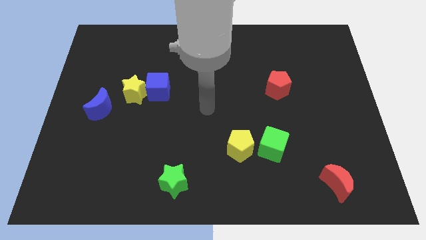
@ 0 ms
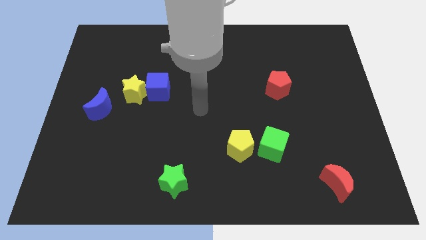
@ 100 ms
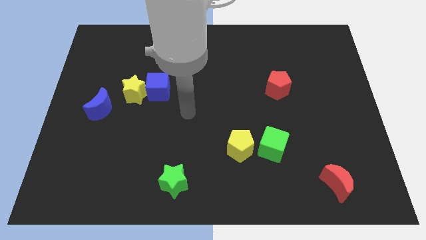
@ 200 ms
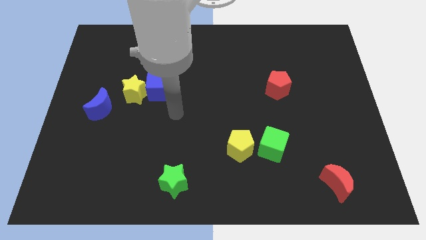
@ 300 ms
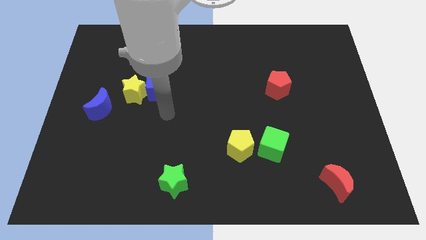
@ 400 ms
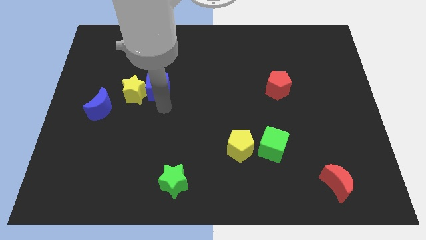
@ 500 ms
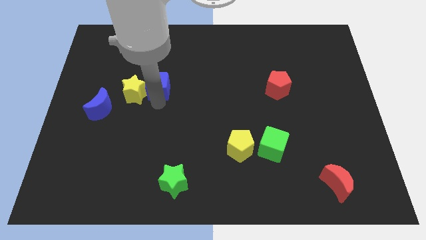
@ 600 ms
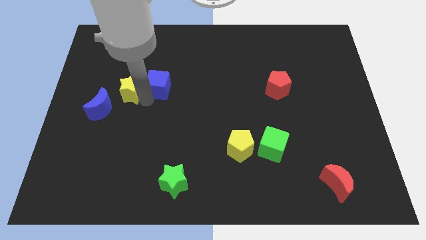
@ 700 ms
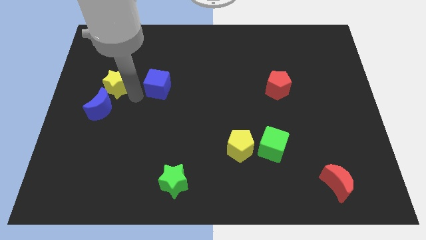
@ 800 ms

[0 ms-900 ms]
separate the blue cube from the yellow star

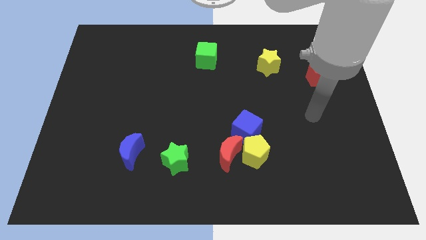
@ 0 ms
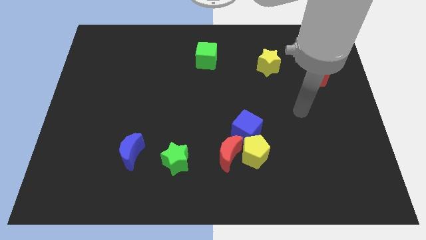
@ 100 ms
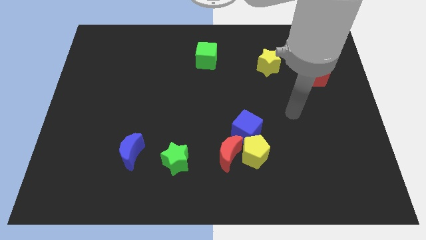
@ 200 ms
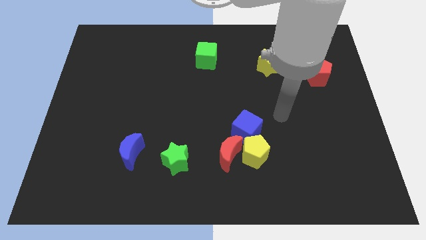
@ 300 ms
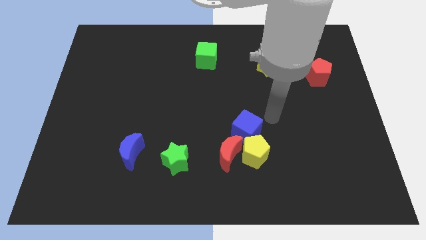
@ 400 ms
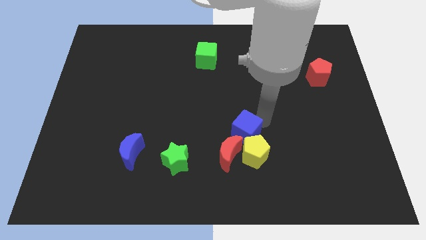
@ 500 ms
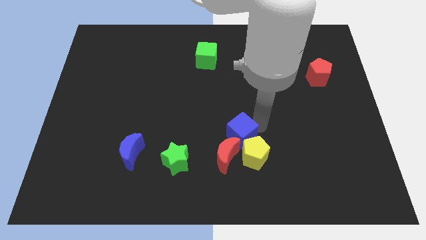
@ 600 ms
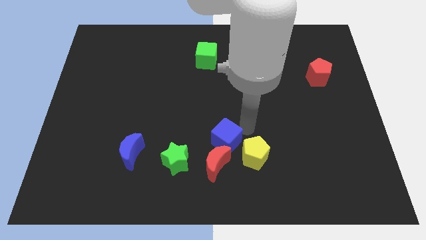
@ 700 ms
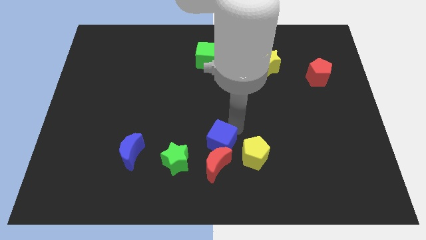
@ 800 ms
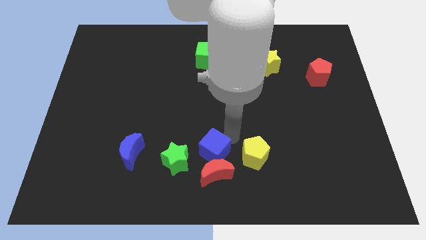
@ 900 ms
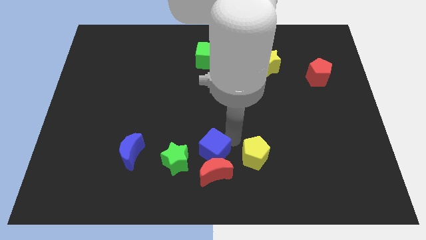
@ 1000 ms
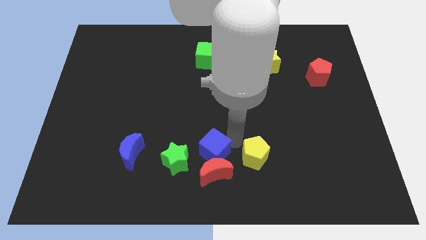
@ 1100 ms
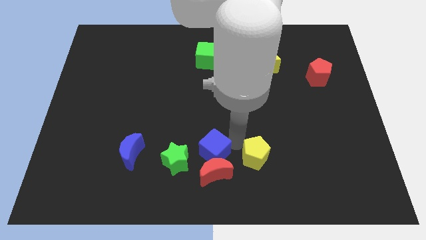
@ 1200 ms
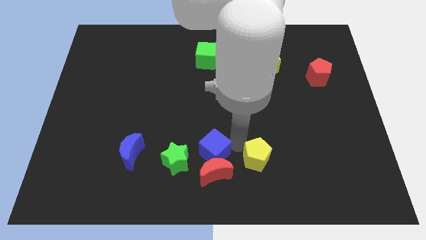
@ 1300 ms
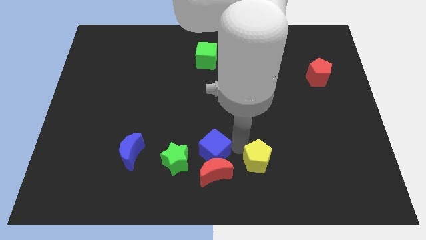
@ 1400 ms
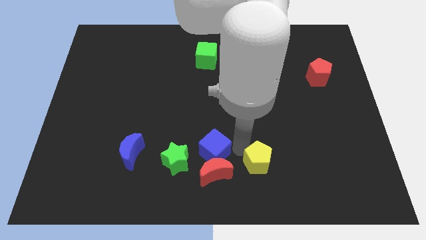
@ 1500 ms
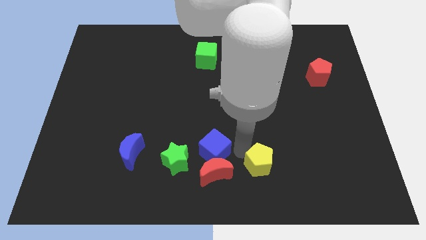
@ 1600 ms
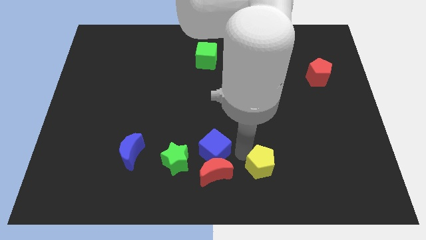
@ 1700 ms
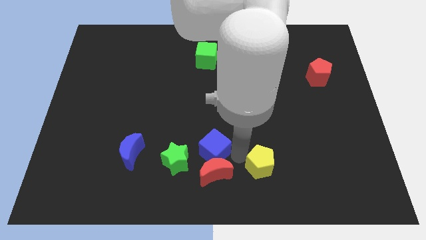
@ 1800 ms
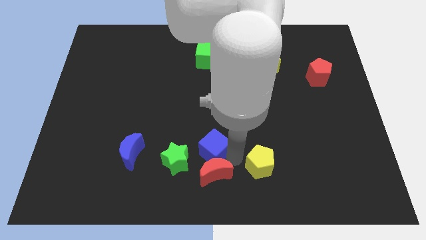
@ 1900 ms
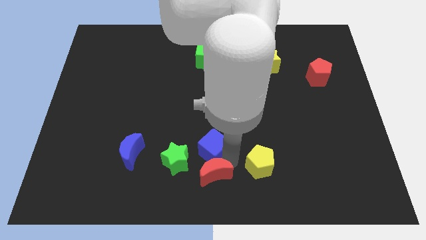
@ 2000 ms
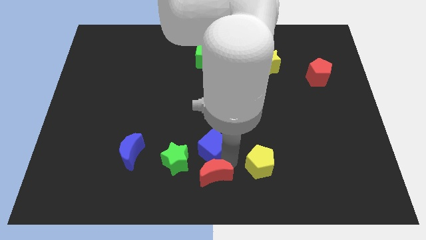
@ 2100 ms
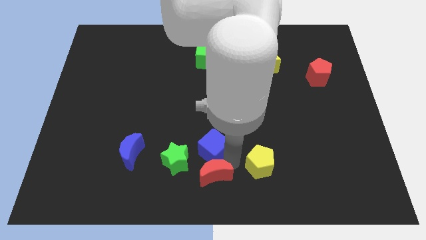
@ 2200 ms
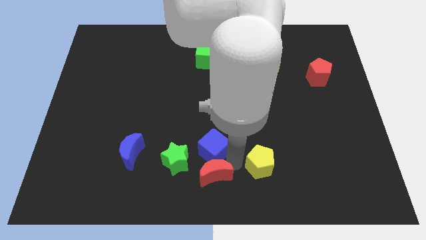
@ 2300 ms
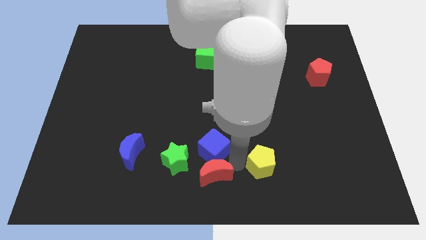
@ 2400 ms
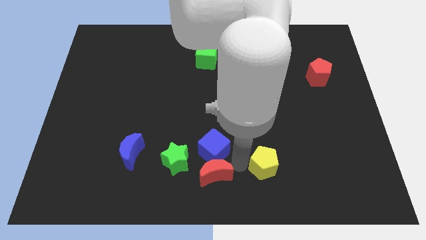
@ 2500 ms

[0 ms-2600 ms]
separate the yellow pentagon from the red moon and blue cube

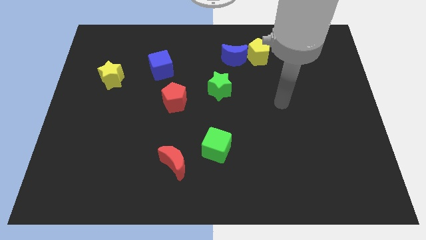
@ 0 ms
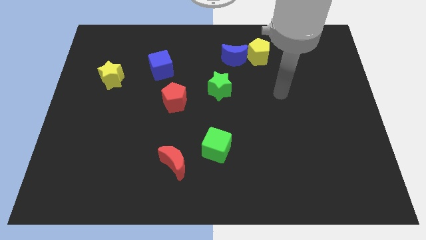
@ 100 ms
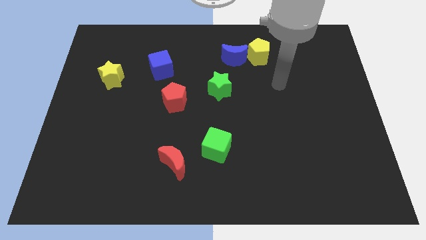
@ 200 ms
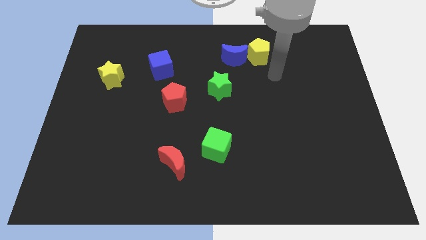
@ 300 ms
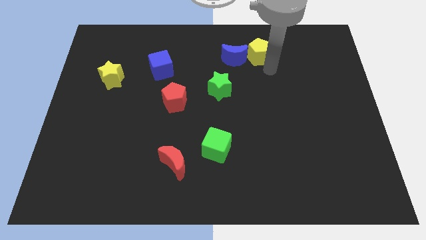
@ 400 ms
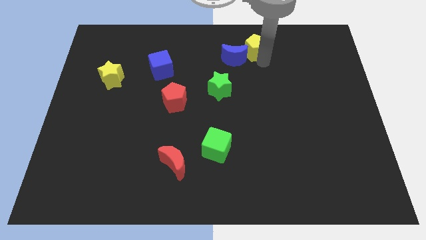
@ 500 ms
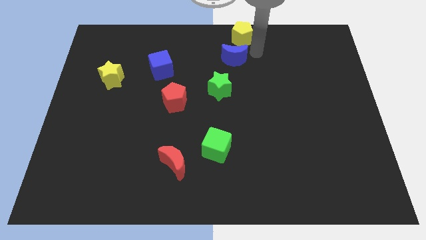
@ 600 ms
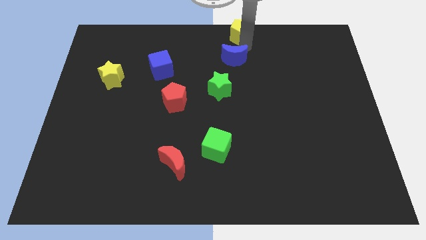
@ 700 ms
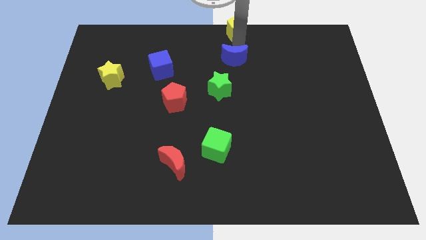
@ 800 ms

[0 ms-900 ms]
move the blue moon away from the yellow pentagon

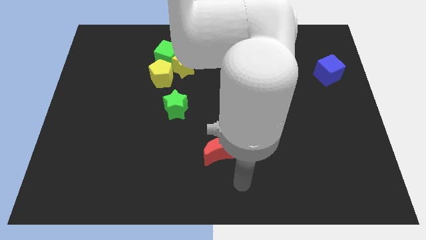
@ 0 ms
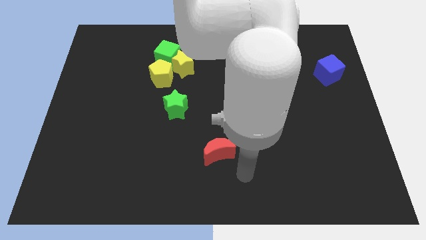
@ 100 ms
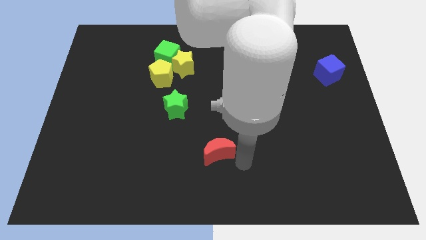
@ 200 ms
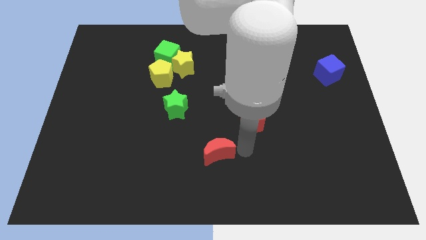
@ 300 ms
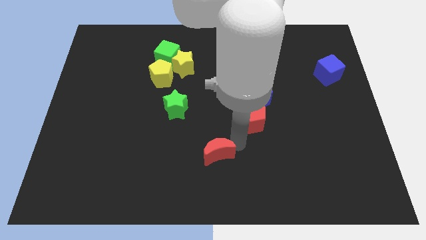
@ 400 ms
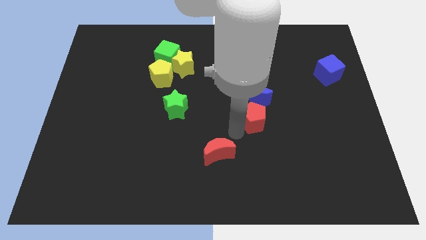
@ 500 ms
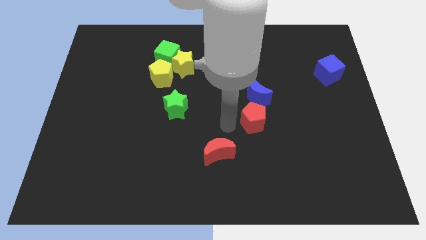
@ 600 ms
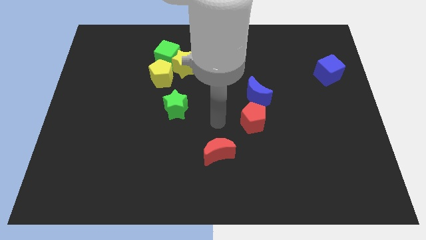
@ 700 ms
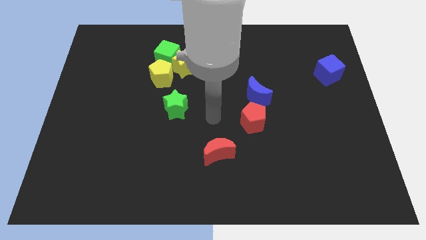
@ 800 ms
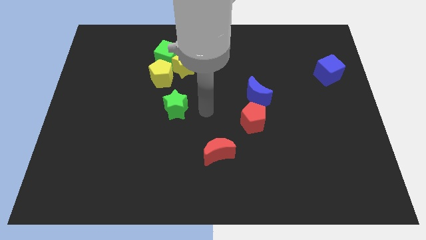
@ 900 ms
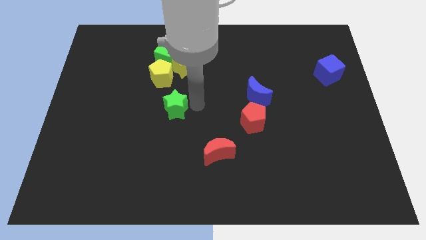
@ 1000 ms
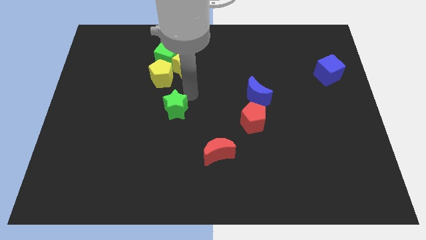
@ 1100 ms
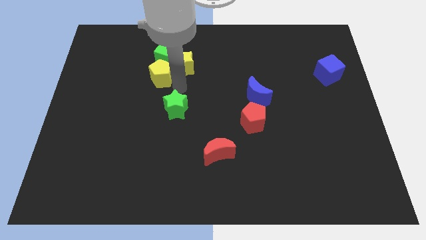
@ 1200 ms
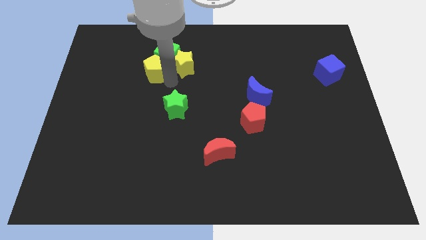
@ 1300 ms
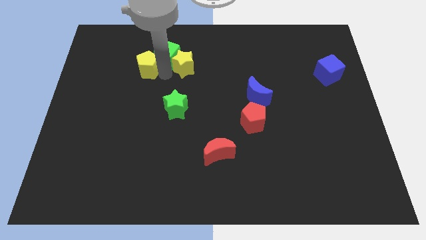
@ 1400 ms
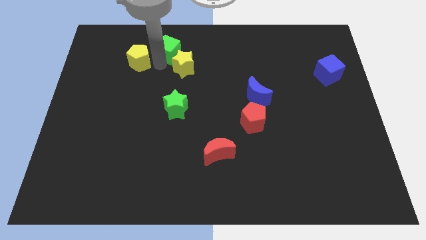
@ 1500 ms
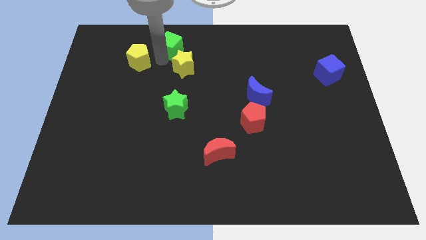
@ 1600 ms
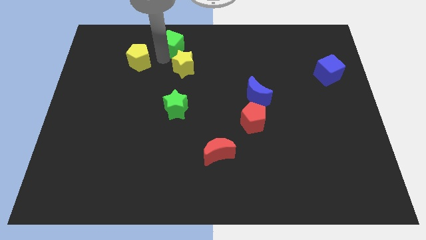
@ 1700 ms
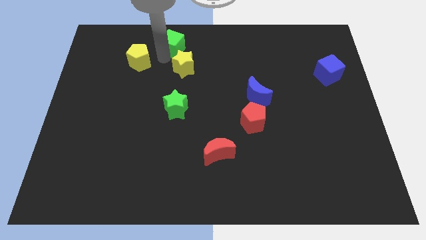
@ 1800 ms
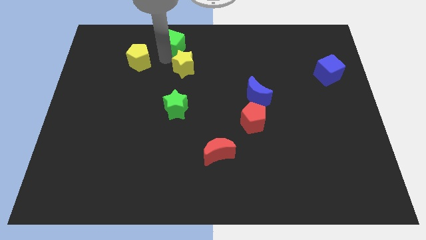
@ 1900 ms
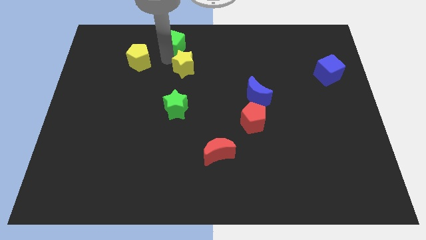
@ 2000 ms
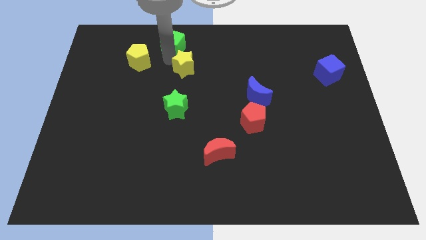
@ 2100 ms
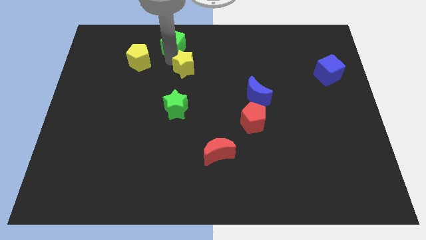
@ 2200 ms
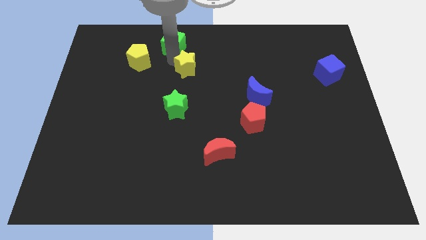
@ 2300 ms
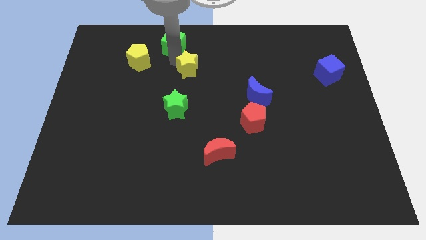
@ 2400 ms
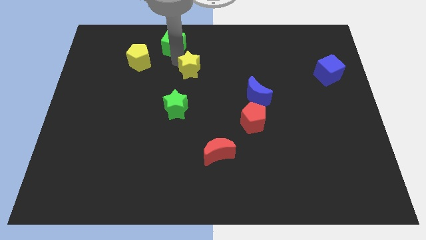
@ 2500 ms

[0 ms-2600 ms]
pull the yellow star apart from the green cube and yellow pentagon

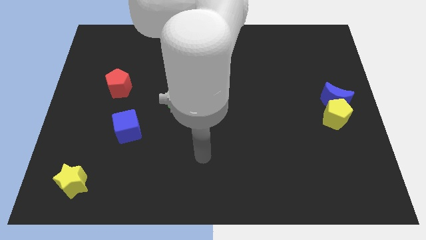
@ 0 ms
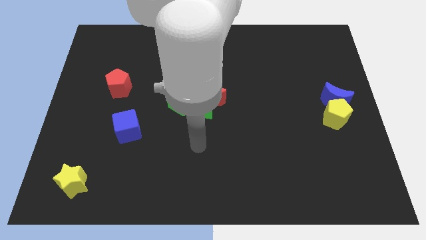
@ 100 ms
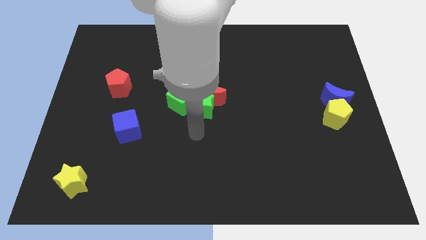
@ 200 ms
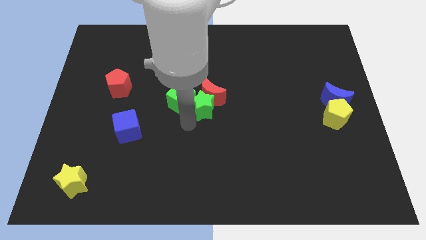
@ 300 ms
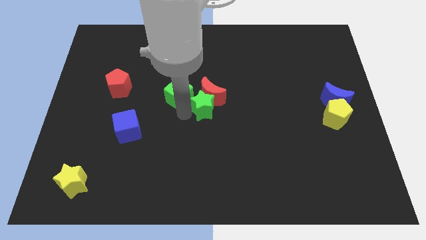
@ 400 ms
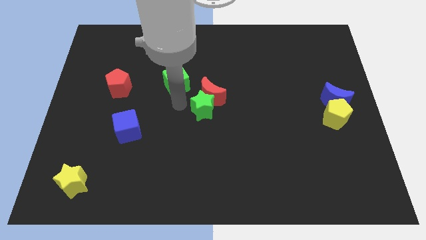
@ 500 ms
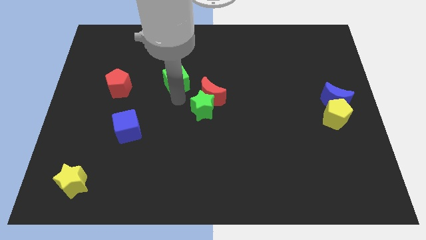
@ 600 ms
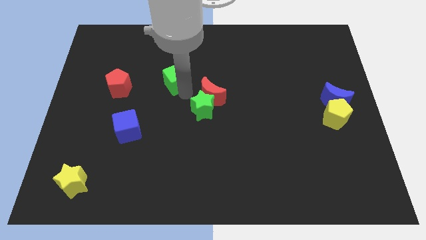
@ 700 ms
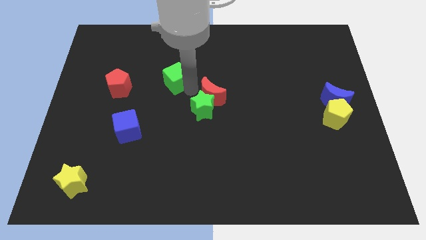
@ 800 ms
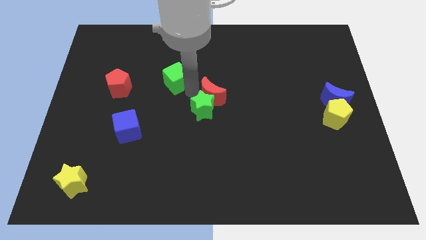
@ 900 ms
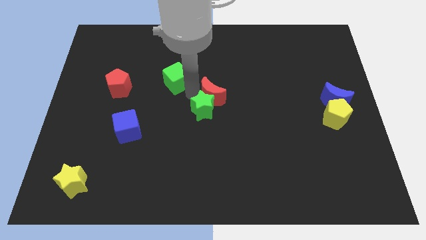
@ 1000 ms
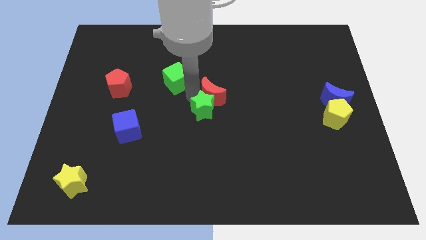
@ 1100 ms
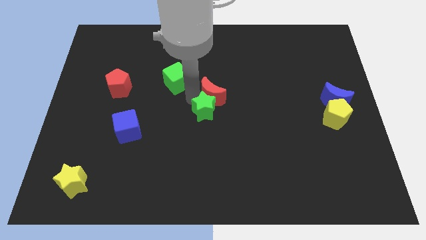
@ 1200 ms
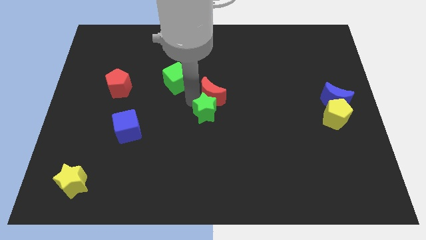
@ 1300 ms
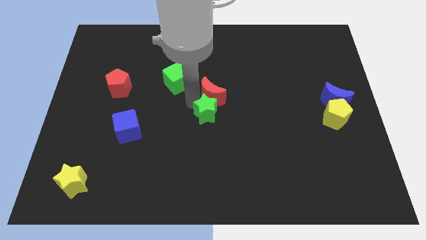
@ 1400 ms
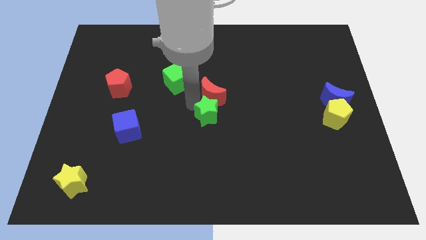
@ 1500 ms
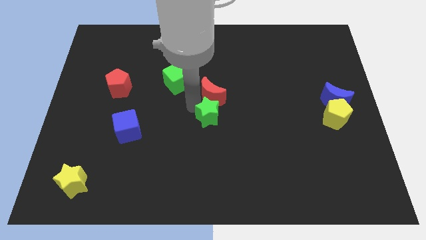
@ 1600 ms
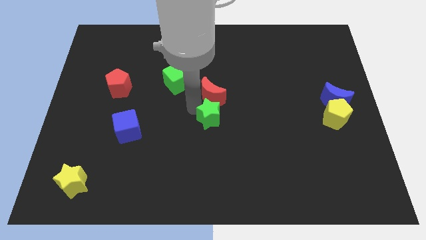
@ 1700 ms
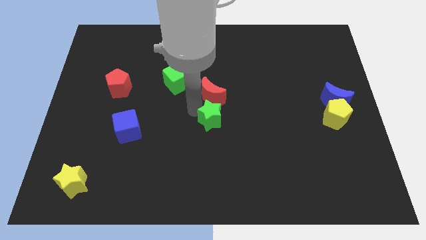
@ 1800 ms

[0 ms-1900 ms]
pull the green star apart from the red moon and green cube

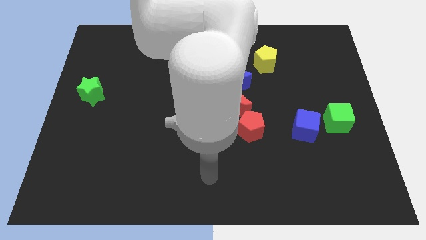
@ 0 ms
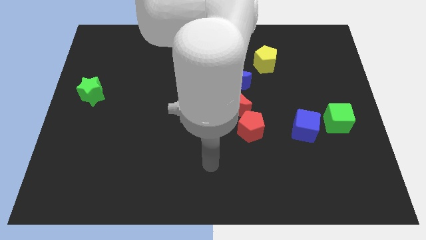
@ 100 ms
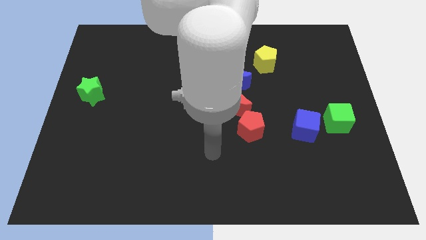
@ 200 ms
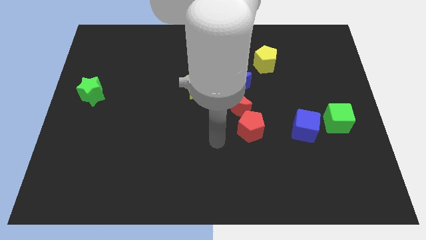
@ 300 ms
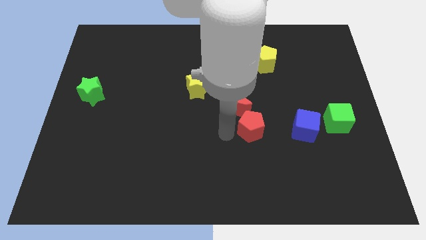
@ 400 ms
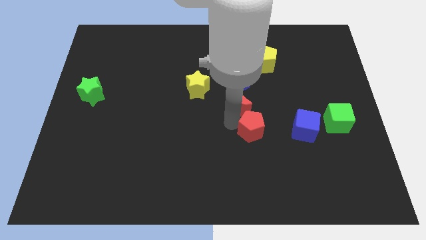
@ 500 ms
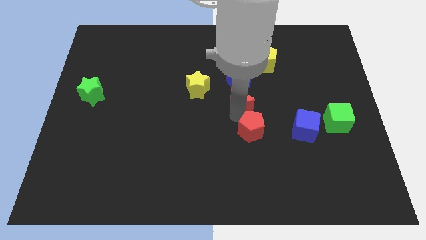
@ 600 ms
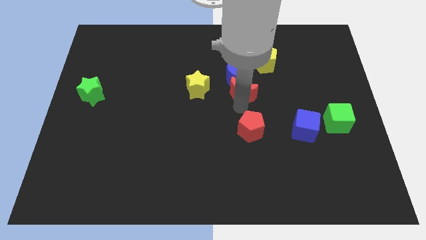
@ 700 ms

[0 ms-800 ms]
separate the red pentagon from the red moon
